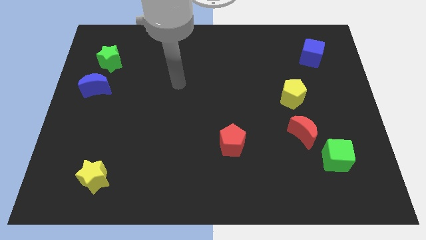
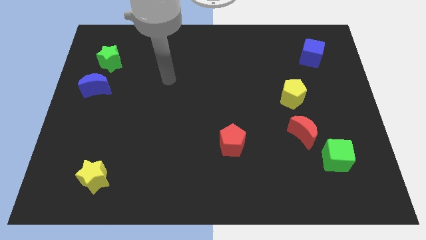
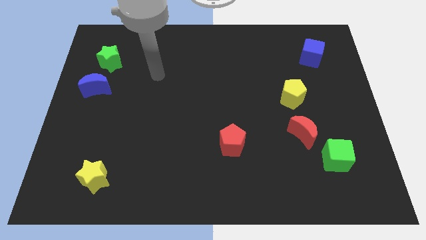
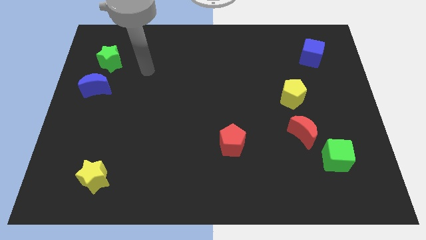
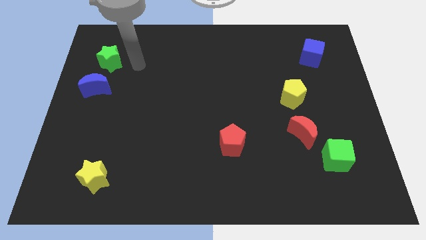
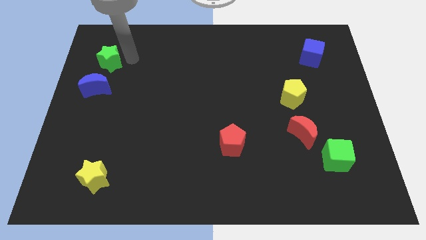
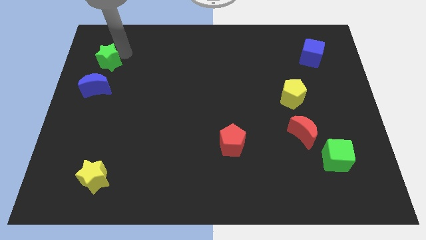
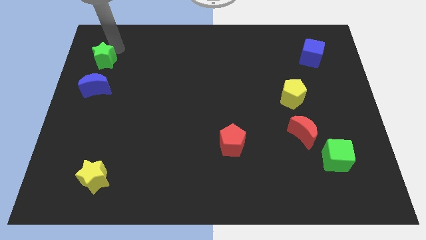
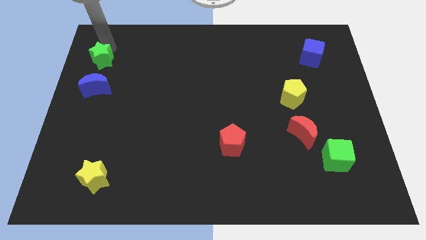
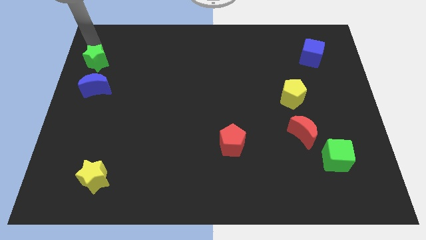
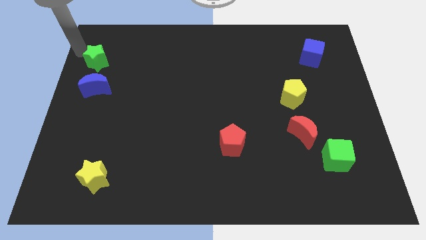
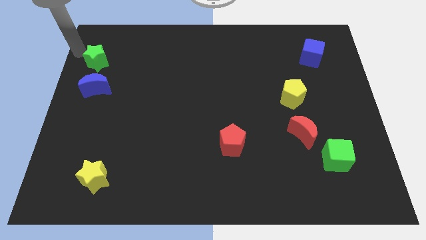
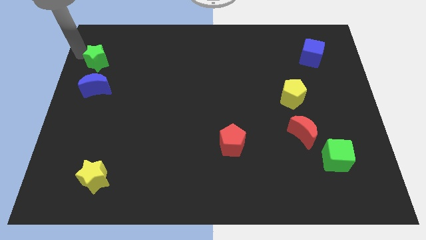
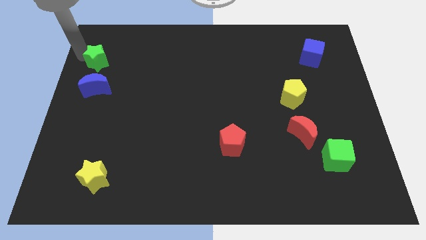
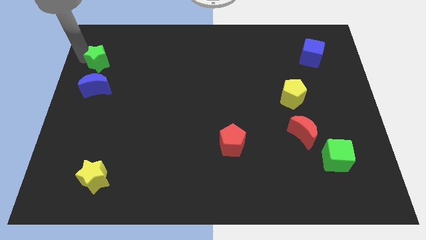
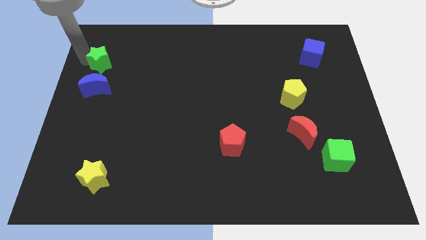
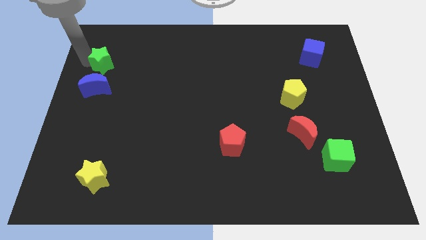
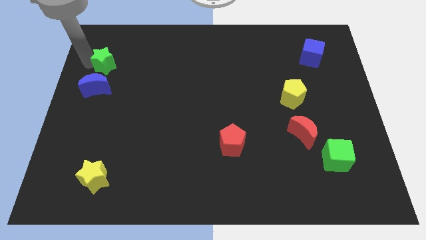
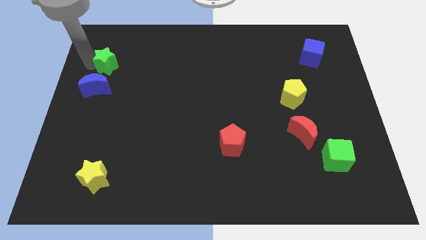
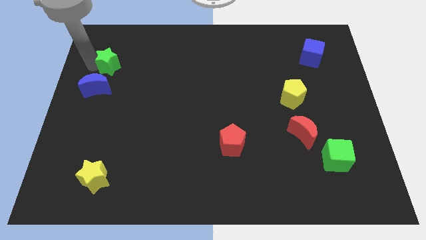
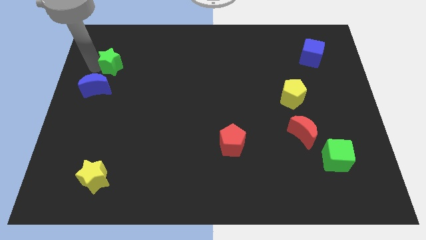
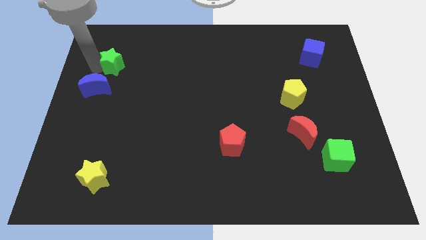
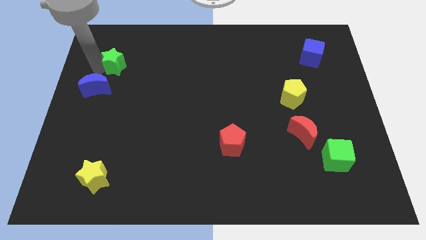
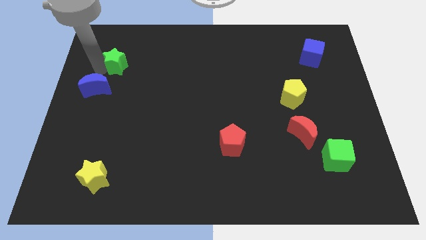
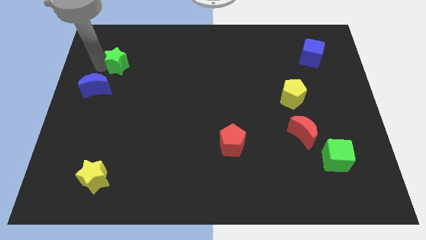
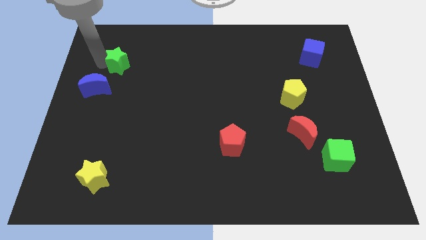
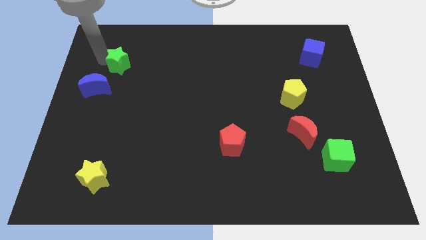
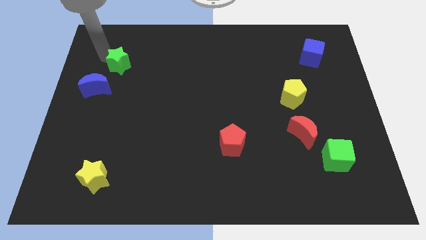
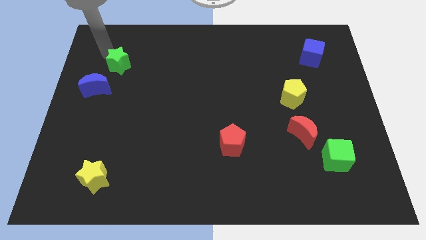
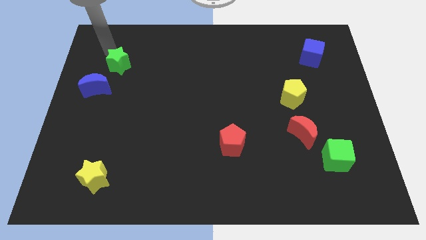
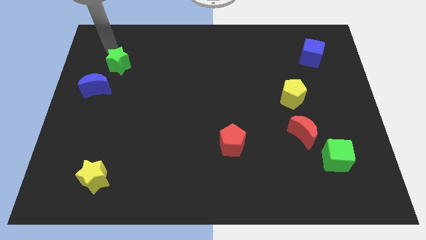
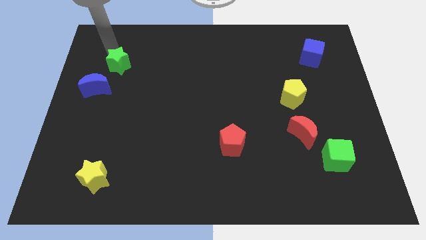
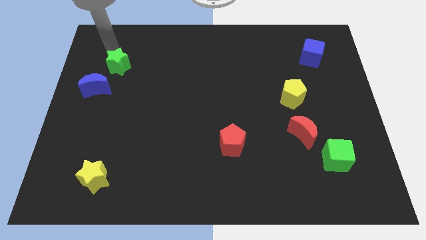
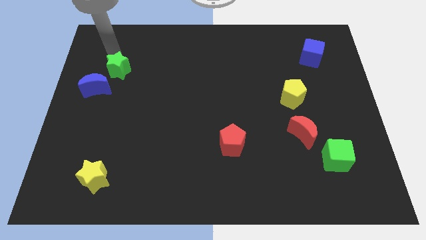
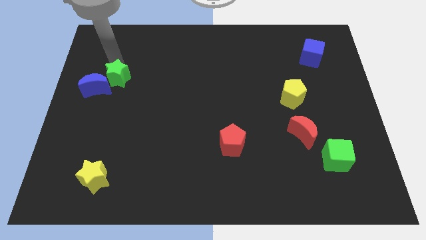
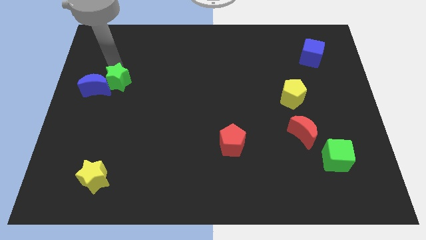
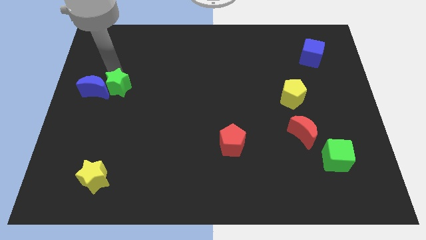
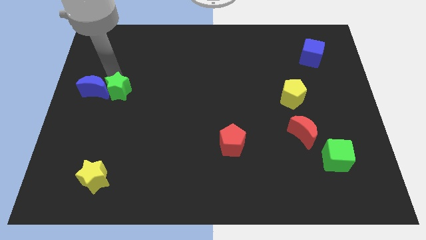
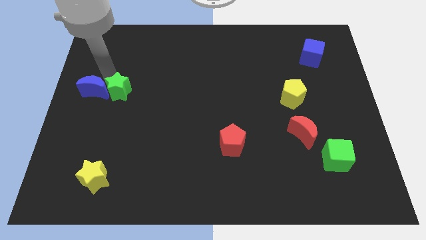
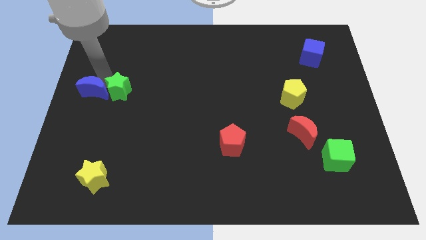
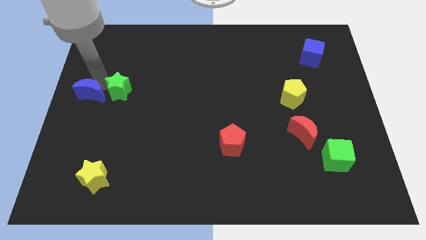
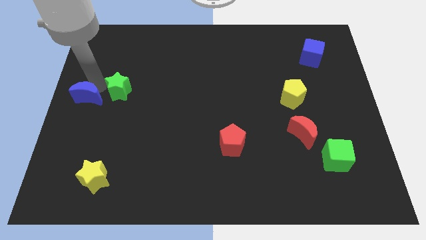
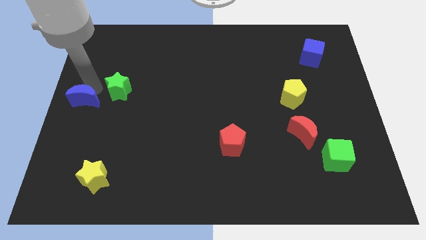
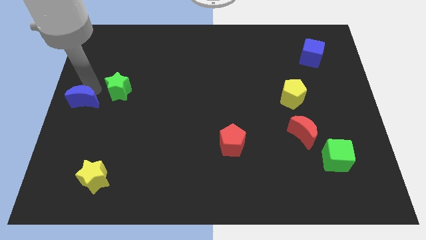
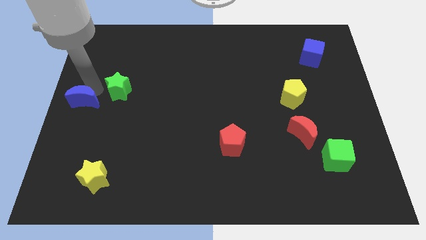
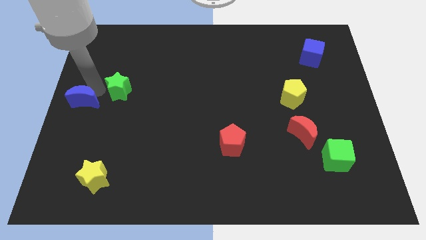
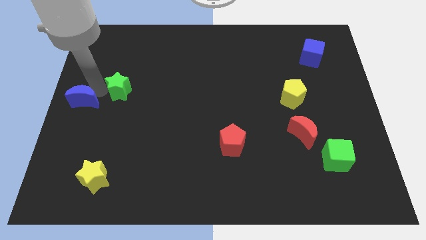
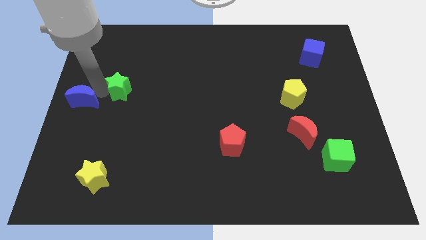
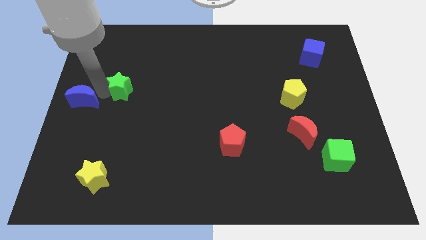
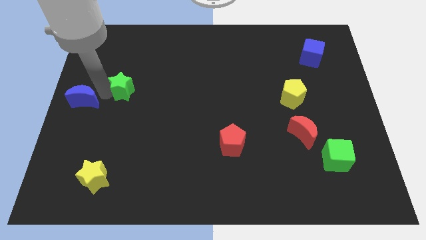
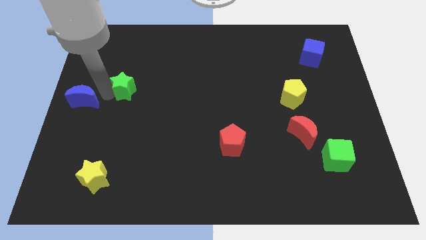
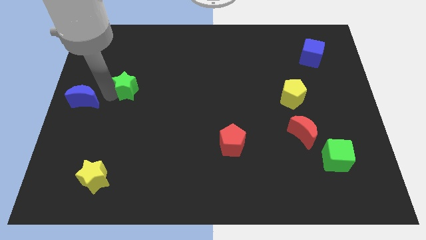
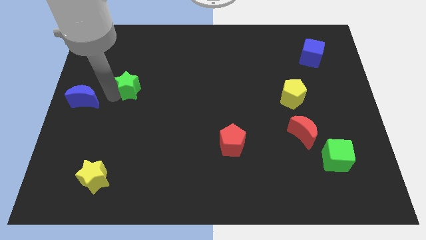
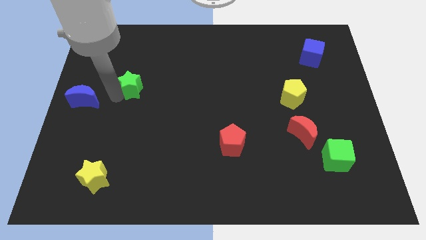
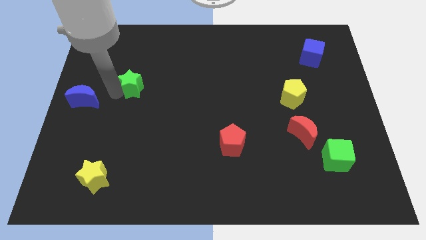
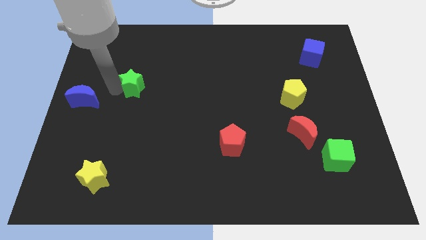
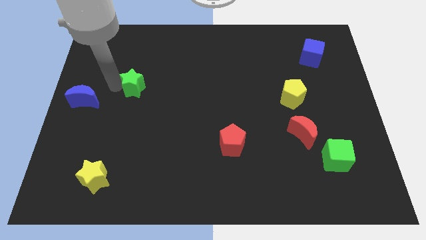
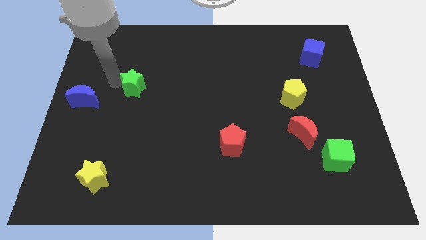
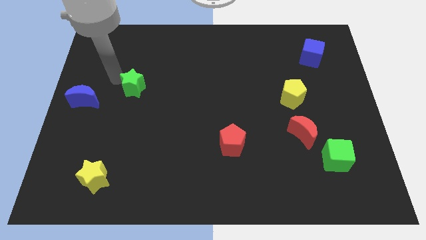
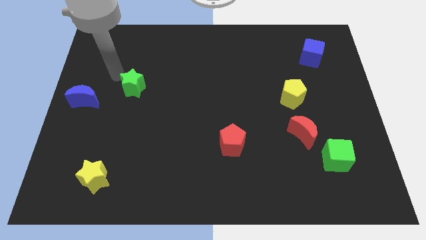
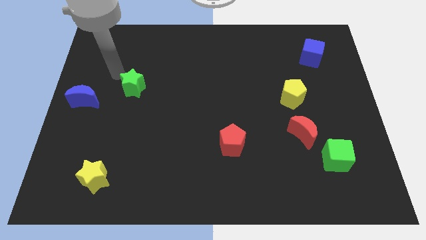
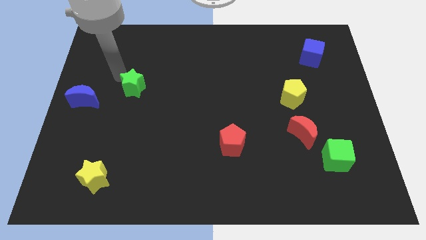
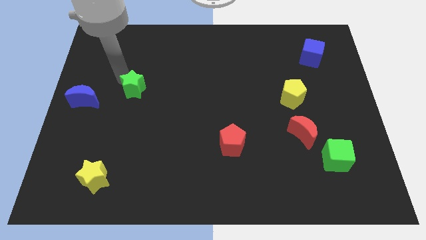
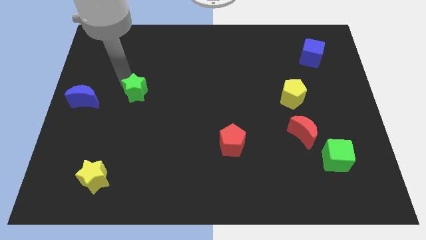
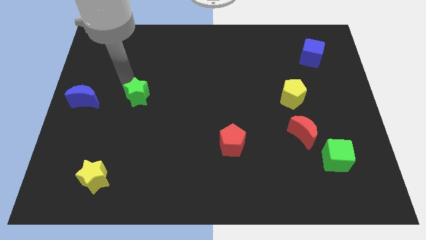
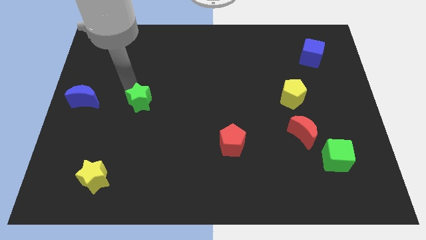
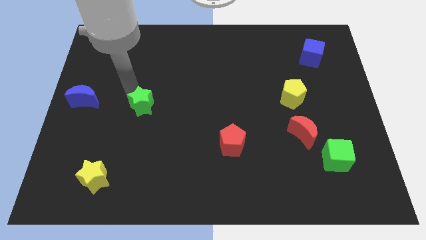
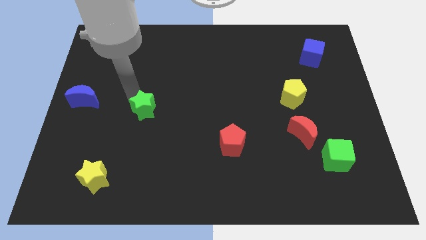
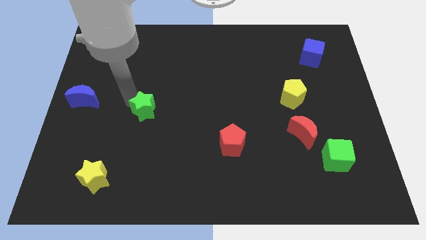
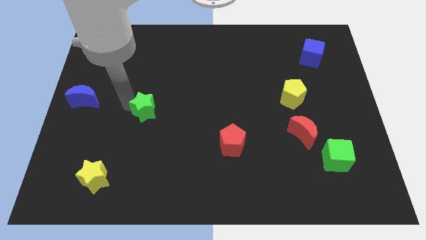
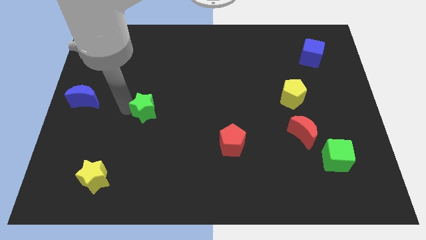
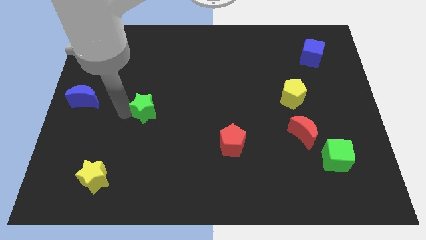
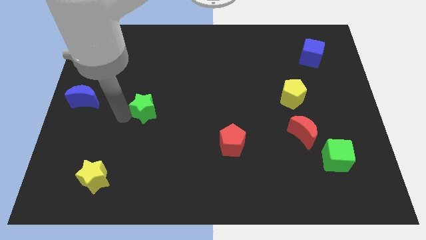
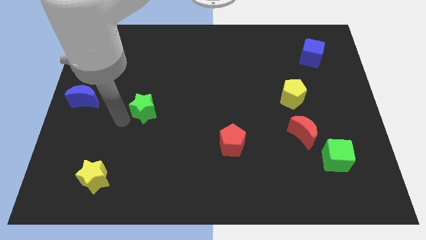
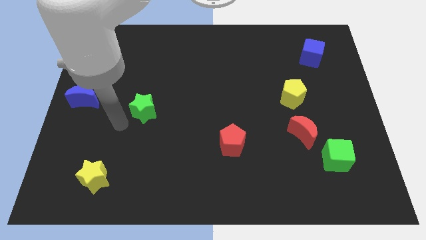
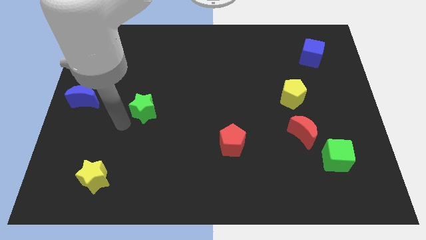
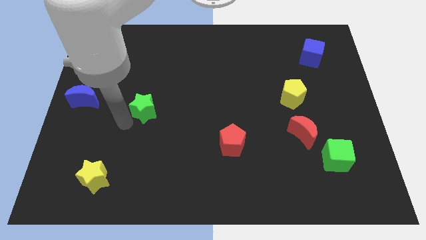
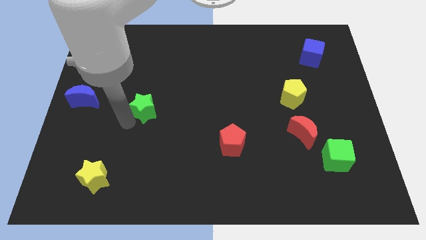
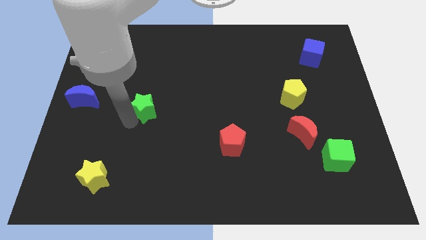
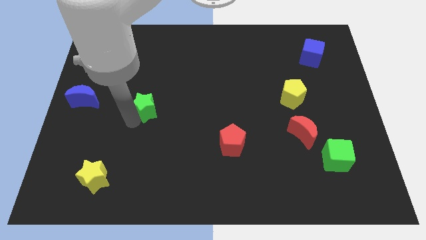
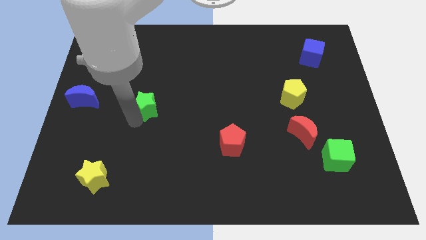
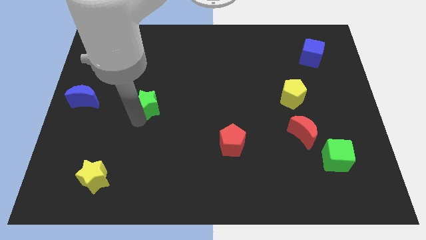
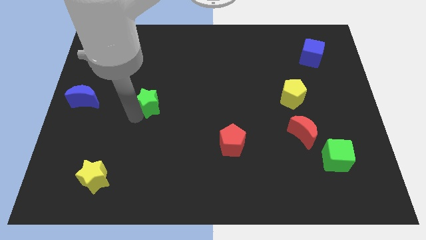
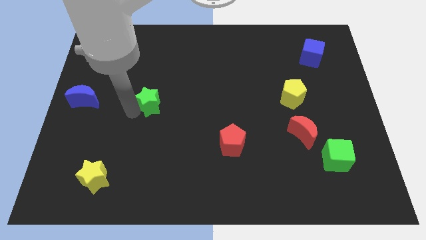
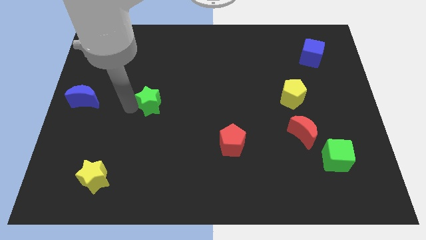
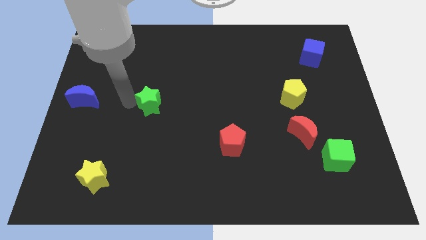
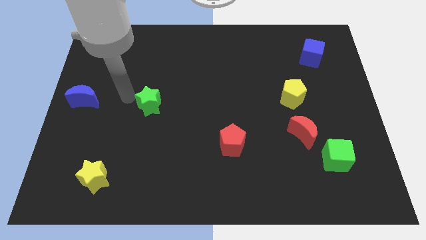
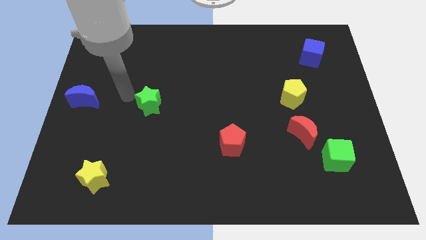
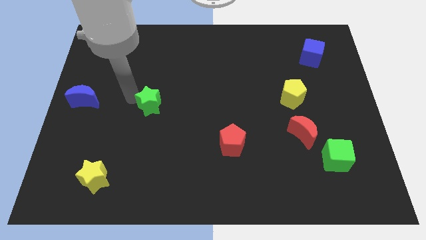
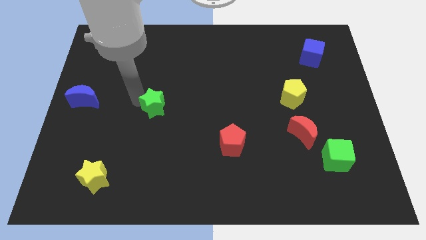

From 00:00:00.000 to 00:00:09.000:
slide the green star downwards and to the right diagonally
